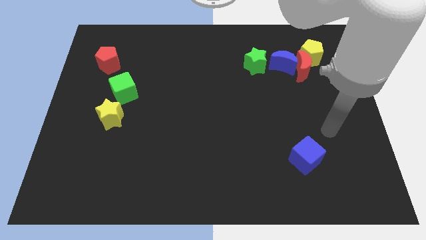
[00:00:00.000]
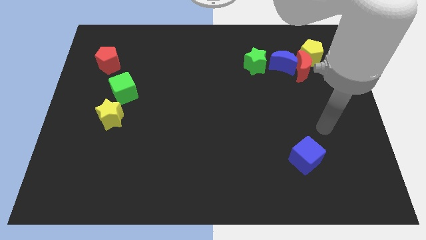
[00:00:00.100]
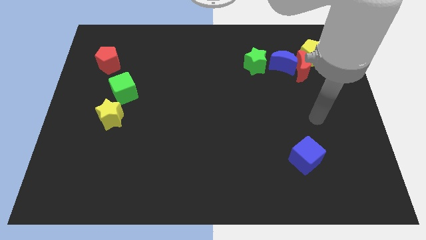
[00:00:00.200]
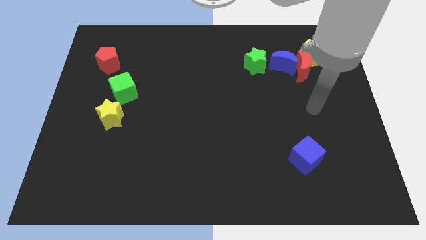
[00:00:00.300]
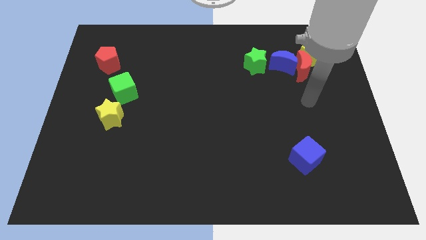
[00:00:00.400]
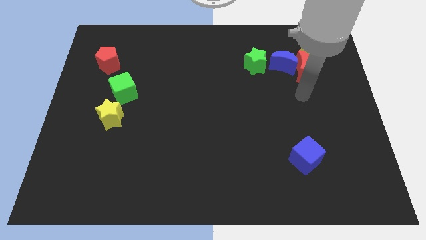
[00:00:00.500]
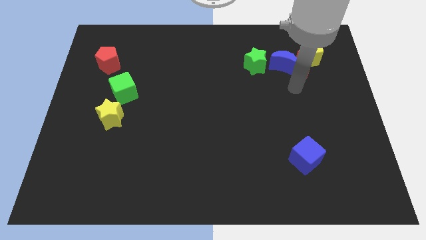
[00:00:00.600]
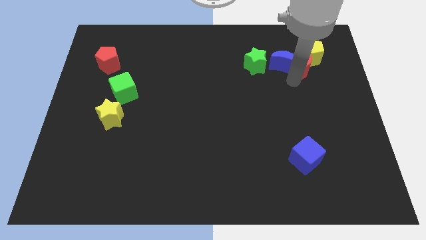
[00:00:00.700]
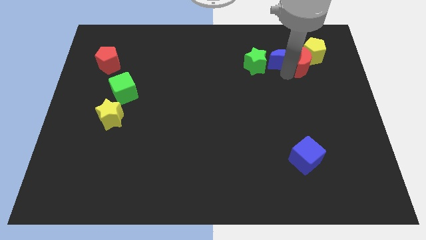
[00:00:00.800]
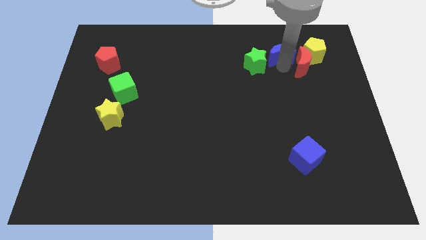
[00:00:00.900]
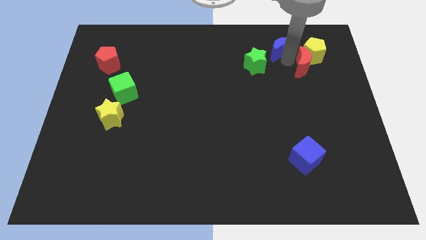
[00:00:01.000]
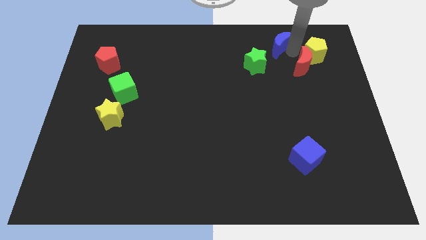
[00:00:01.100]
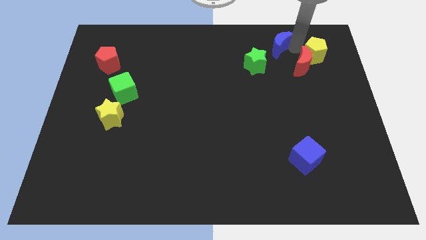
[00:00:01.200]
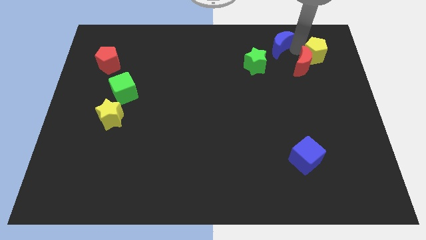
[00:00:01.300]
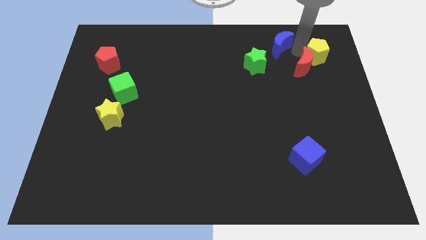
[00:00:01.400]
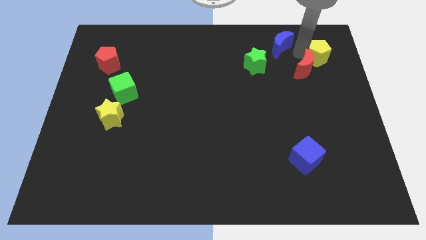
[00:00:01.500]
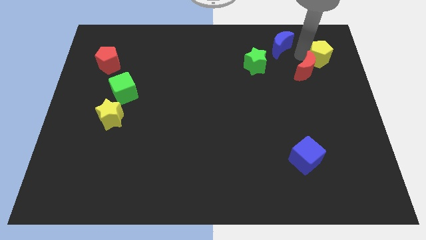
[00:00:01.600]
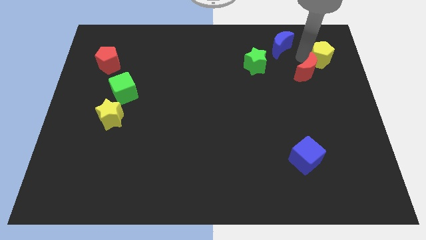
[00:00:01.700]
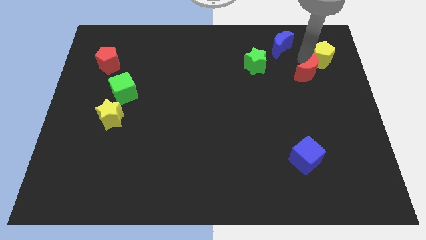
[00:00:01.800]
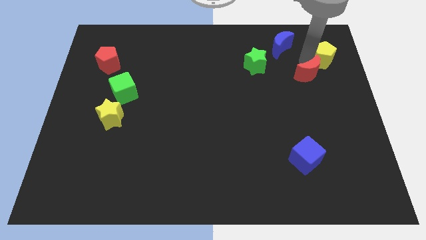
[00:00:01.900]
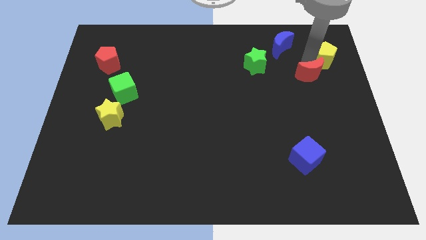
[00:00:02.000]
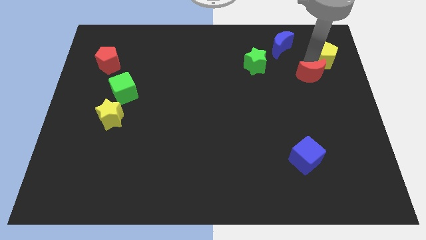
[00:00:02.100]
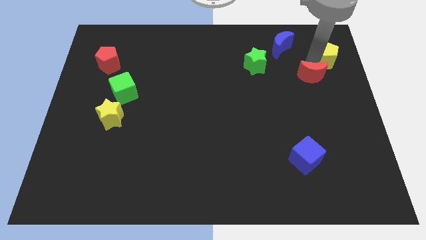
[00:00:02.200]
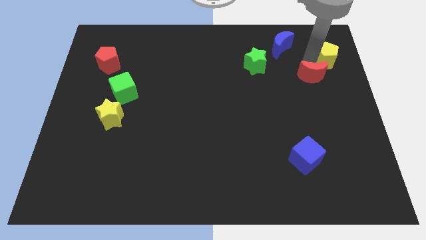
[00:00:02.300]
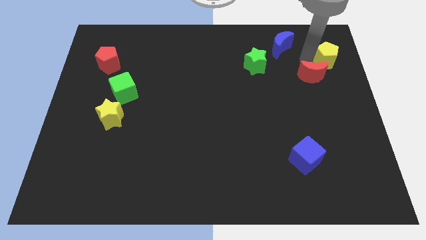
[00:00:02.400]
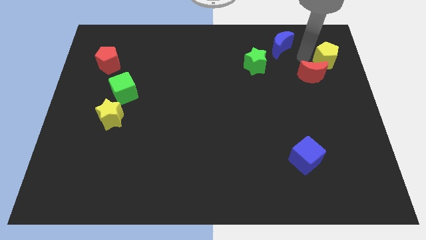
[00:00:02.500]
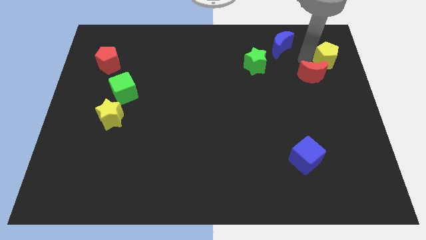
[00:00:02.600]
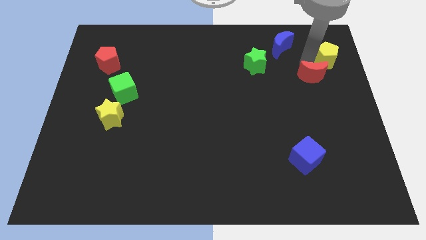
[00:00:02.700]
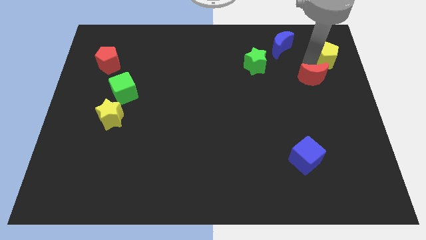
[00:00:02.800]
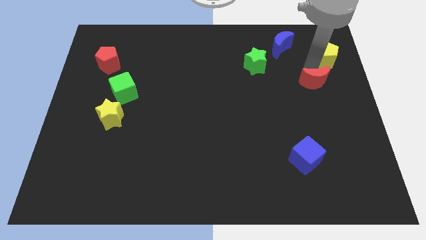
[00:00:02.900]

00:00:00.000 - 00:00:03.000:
pull the red moon apart from the blue moon and yellow pentagon

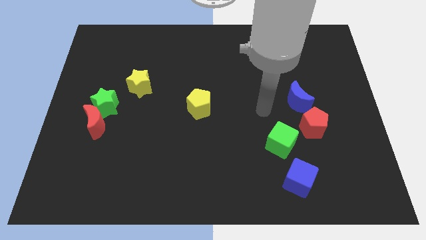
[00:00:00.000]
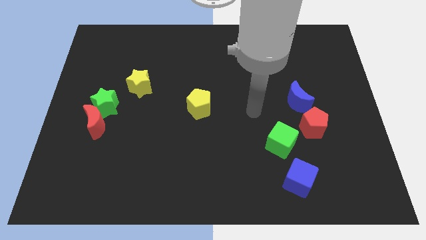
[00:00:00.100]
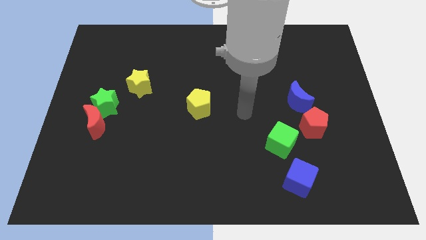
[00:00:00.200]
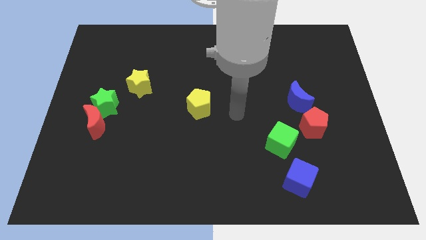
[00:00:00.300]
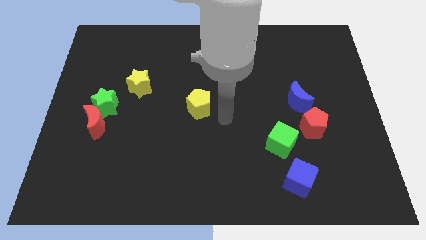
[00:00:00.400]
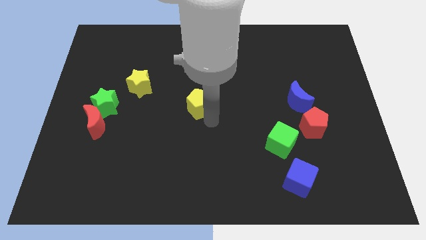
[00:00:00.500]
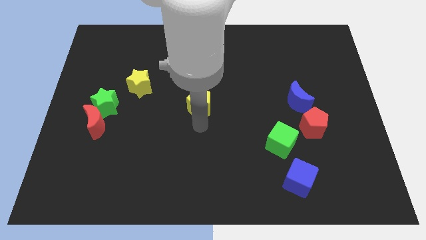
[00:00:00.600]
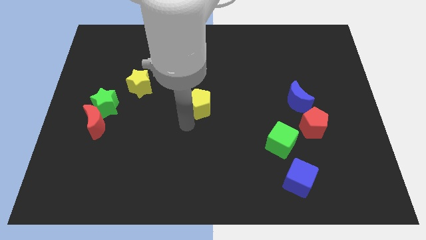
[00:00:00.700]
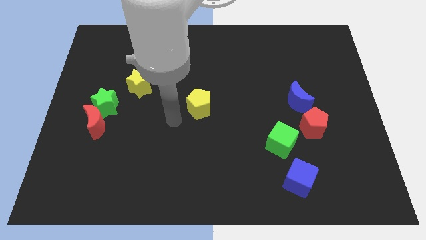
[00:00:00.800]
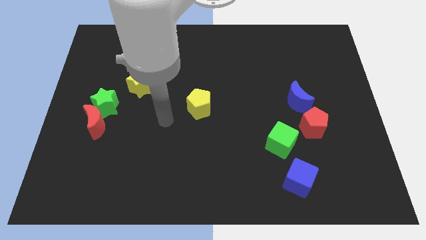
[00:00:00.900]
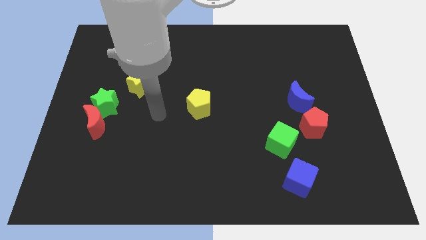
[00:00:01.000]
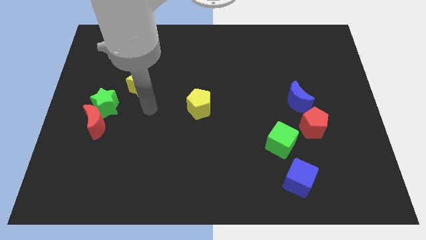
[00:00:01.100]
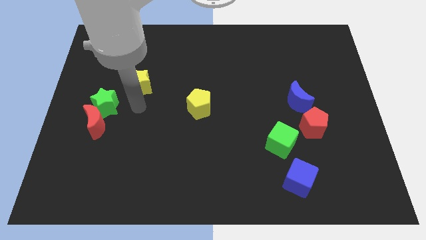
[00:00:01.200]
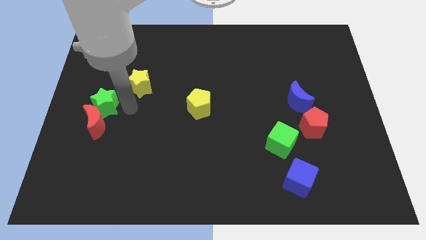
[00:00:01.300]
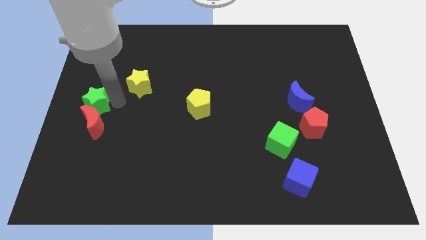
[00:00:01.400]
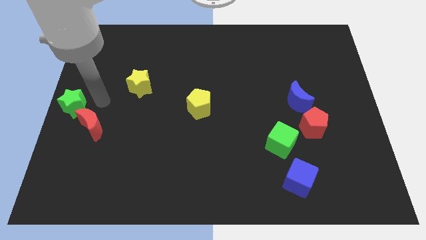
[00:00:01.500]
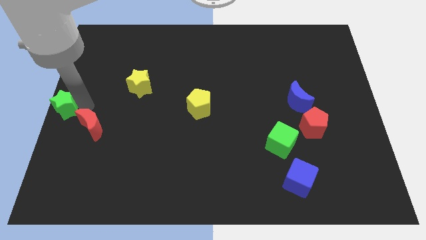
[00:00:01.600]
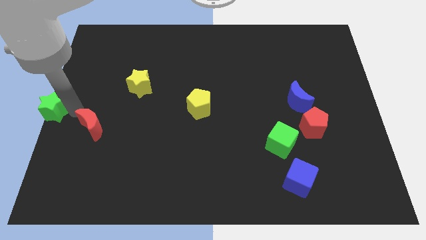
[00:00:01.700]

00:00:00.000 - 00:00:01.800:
move the red moon away from the green star

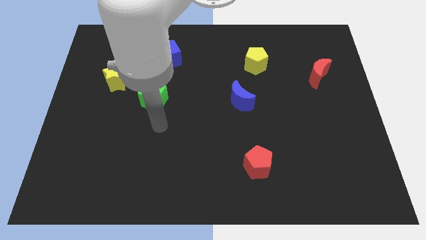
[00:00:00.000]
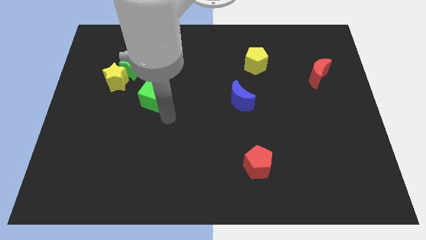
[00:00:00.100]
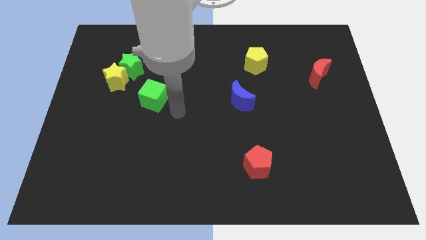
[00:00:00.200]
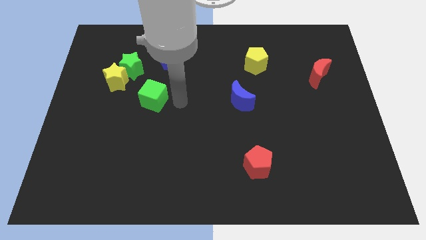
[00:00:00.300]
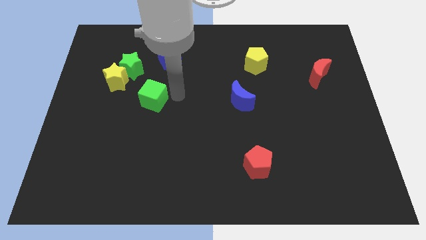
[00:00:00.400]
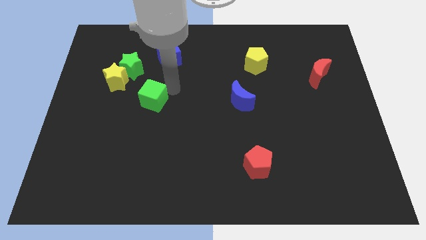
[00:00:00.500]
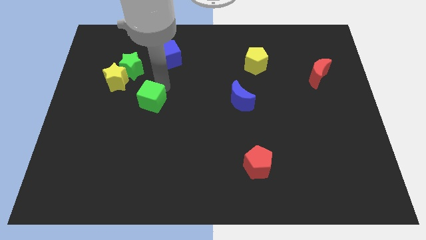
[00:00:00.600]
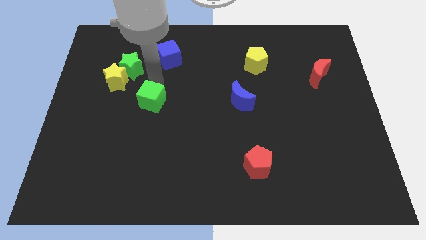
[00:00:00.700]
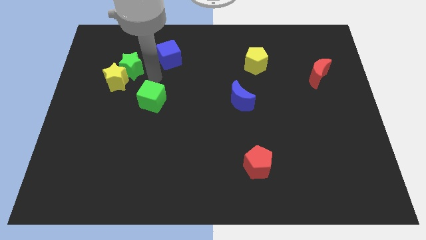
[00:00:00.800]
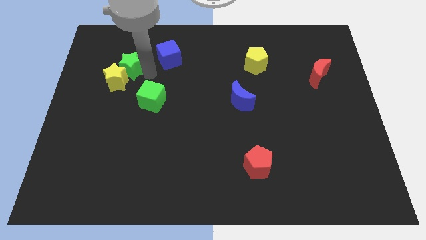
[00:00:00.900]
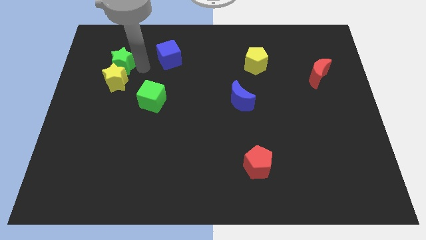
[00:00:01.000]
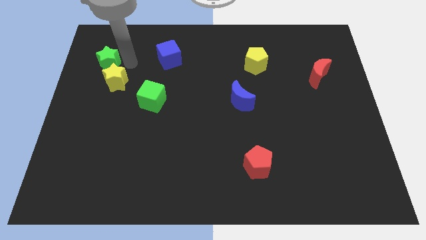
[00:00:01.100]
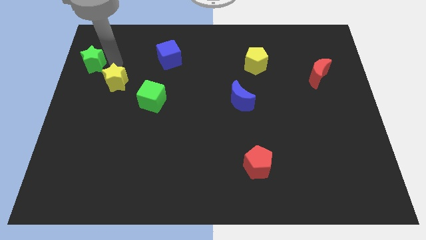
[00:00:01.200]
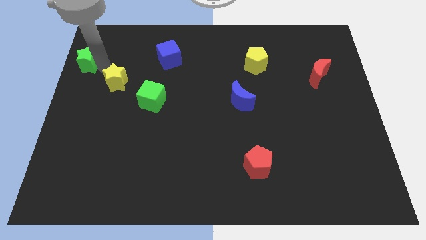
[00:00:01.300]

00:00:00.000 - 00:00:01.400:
move the yellow star away from the green star

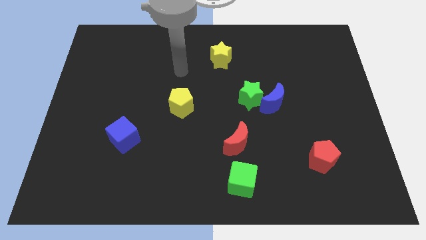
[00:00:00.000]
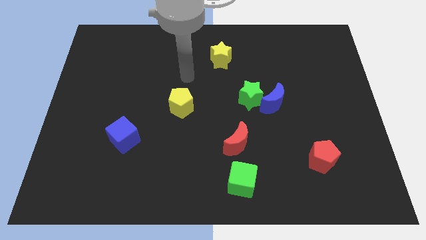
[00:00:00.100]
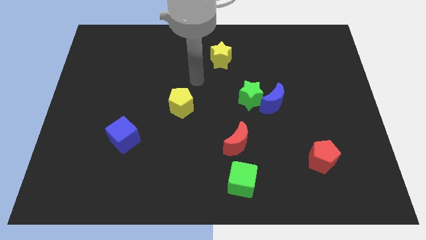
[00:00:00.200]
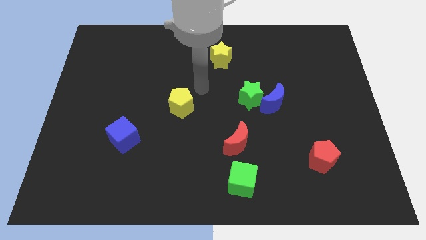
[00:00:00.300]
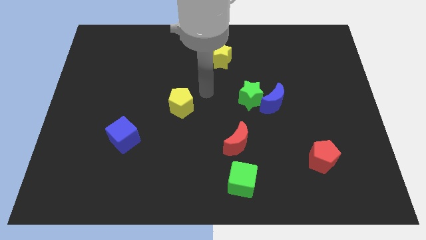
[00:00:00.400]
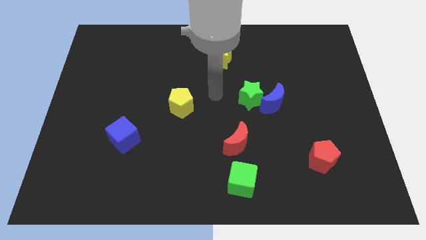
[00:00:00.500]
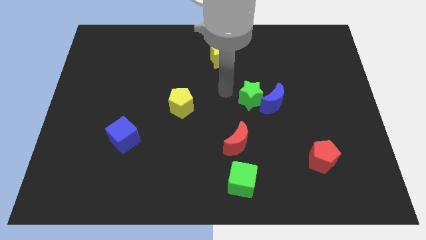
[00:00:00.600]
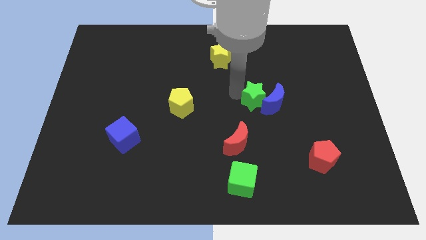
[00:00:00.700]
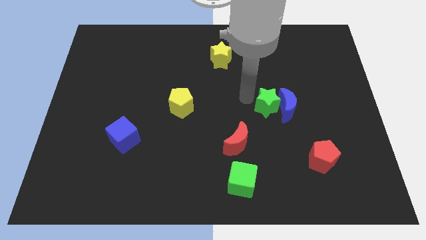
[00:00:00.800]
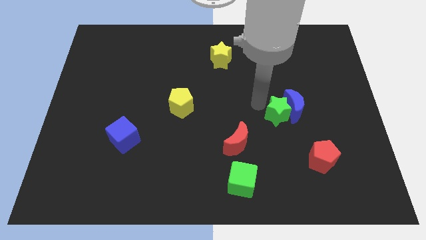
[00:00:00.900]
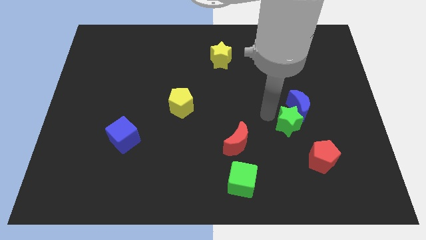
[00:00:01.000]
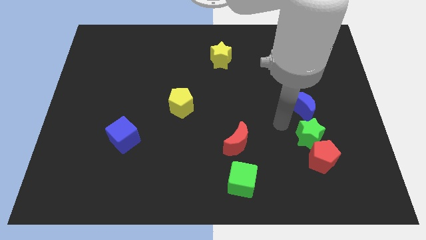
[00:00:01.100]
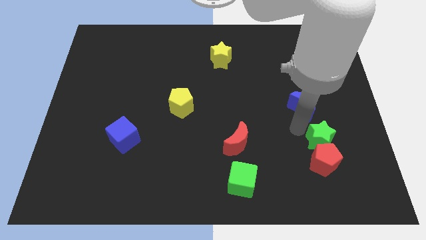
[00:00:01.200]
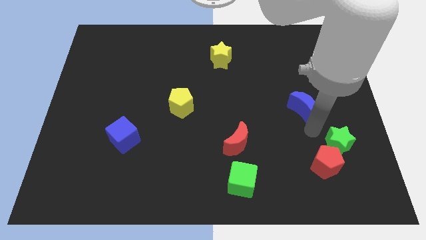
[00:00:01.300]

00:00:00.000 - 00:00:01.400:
move the blue moon away from the green star

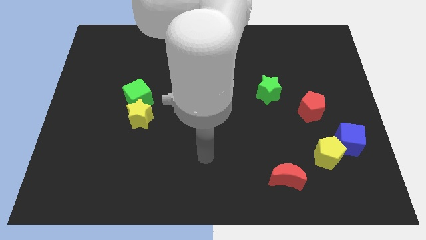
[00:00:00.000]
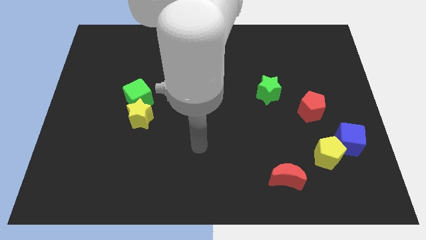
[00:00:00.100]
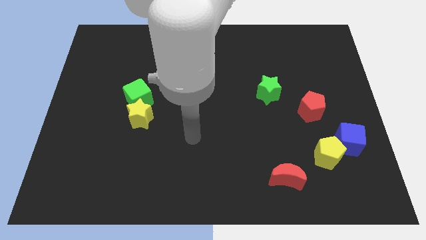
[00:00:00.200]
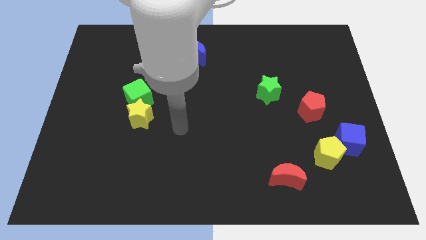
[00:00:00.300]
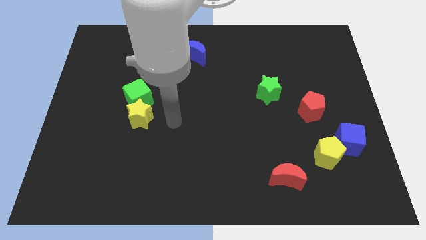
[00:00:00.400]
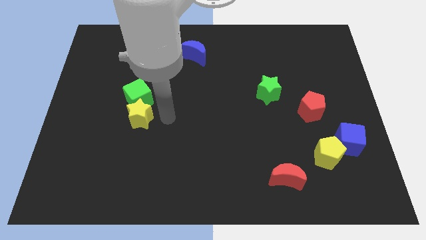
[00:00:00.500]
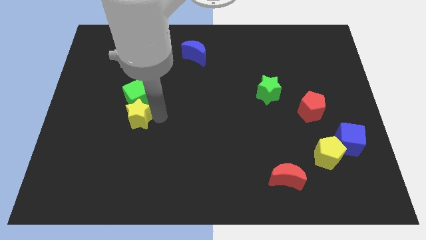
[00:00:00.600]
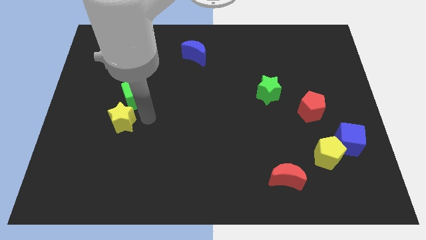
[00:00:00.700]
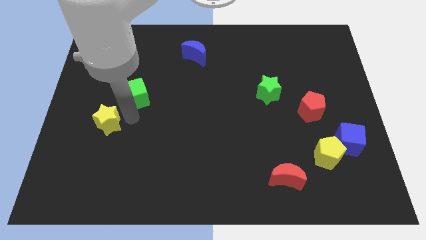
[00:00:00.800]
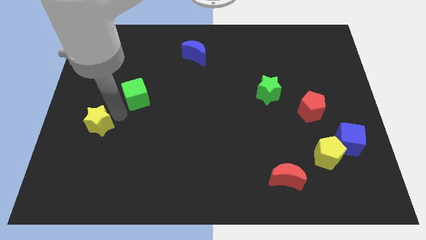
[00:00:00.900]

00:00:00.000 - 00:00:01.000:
move the green cube away from the yellow star

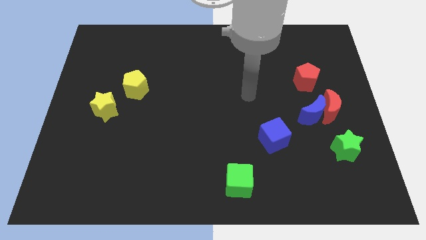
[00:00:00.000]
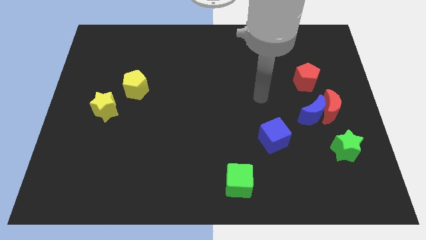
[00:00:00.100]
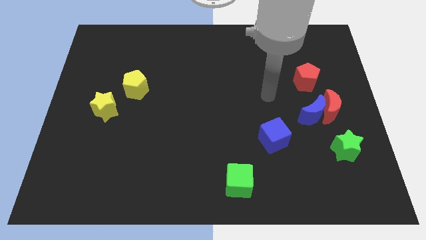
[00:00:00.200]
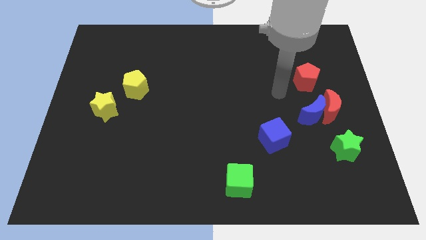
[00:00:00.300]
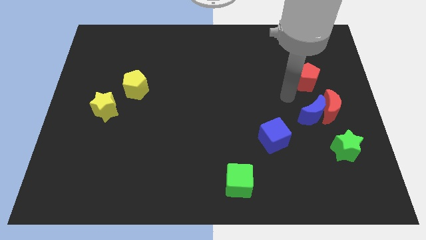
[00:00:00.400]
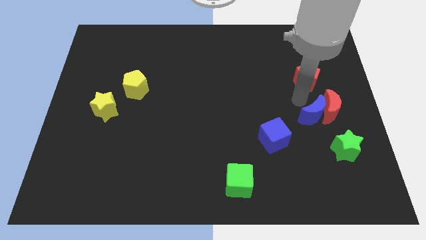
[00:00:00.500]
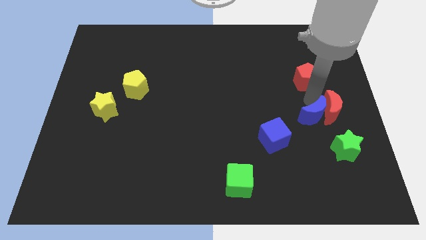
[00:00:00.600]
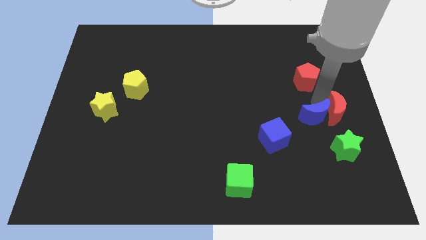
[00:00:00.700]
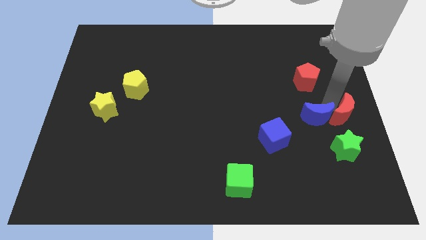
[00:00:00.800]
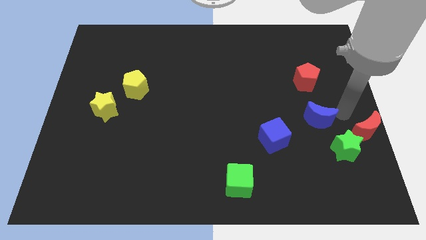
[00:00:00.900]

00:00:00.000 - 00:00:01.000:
pull the blue moon apart from the red moon
